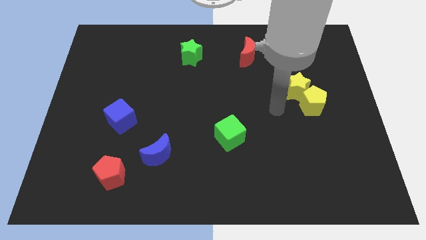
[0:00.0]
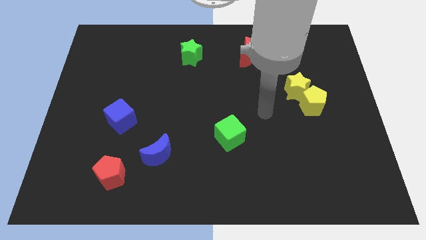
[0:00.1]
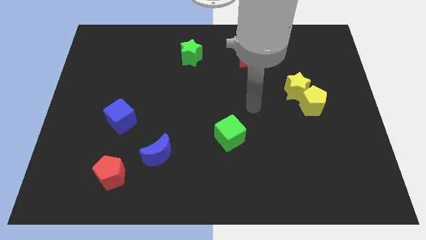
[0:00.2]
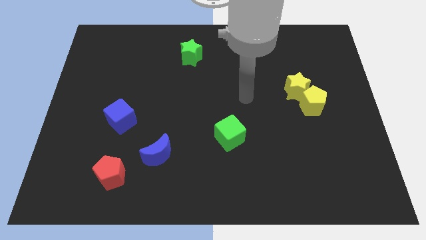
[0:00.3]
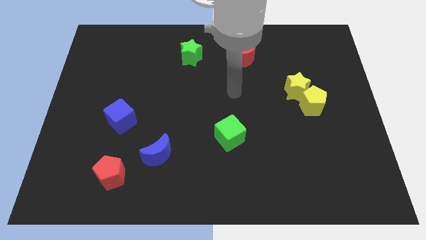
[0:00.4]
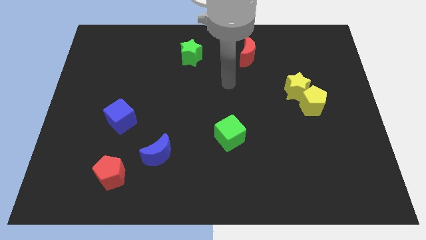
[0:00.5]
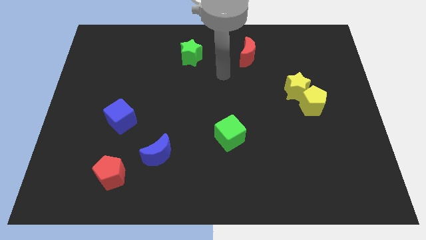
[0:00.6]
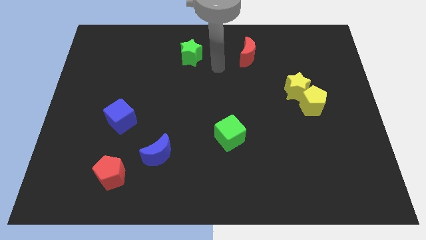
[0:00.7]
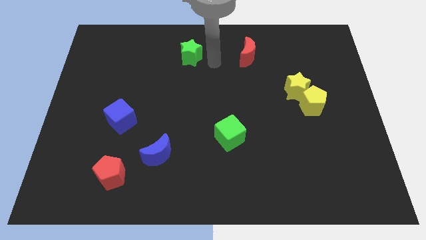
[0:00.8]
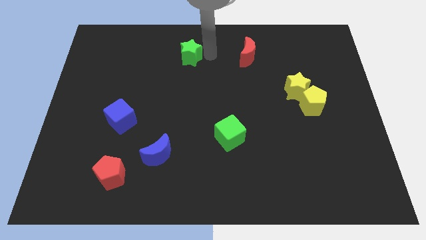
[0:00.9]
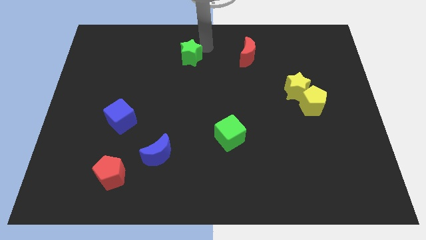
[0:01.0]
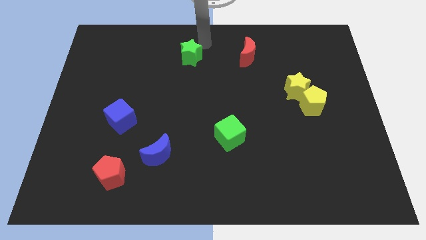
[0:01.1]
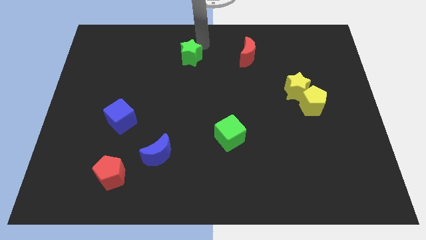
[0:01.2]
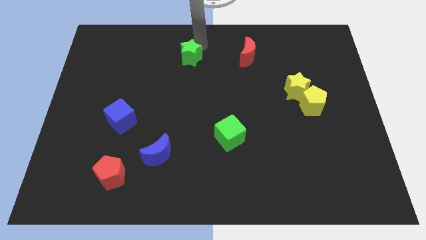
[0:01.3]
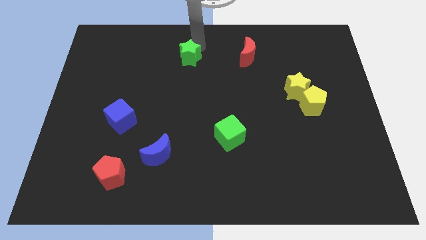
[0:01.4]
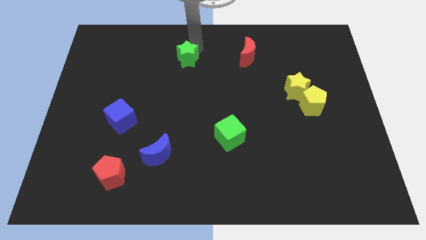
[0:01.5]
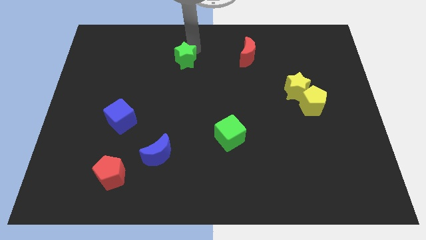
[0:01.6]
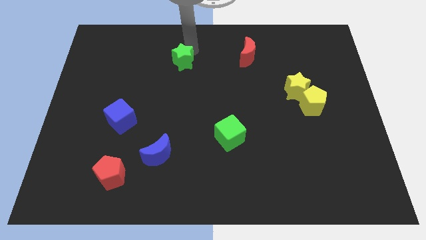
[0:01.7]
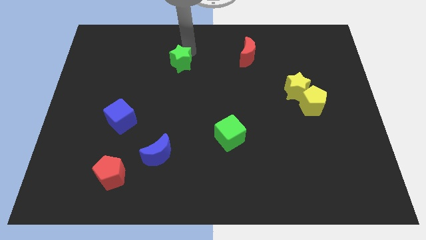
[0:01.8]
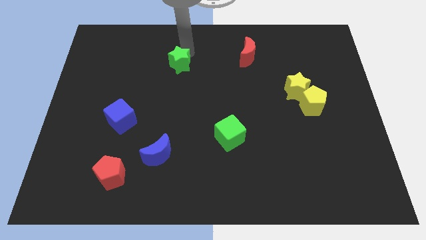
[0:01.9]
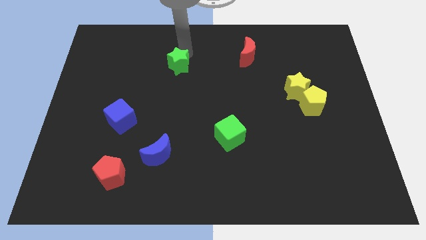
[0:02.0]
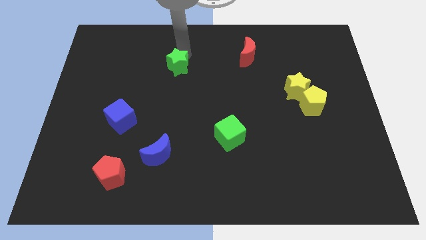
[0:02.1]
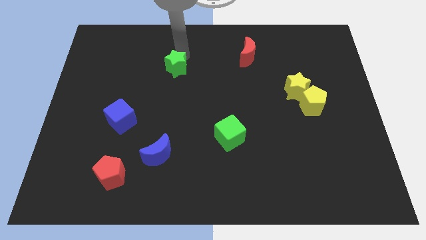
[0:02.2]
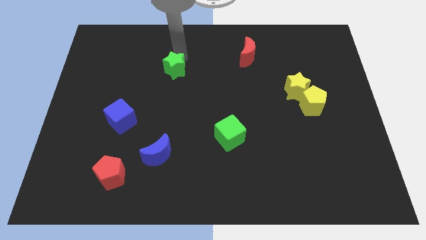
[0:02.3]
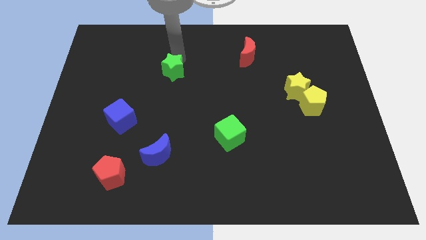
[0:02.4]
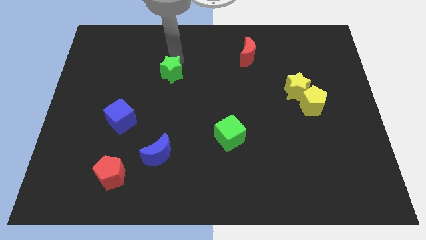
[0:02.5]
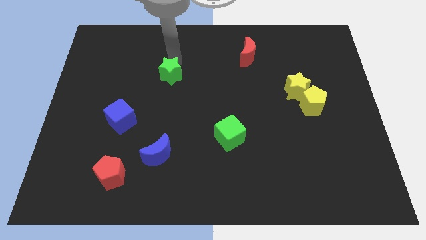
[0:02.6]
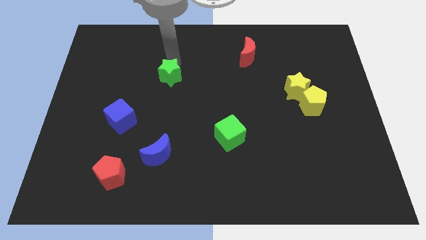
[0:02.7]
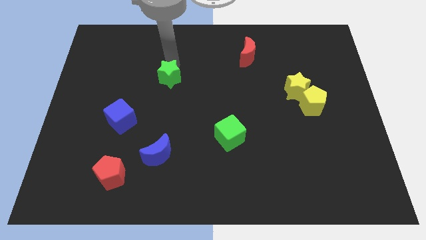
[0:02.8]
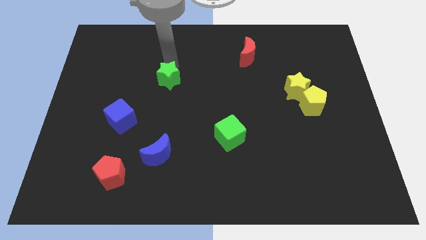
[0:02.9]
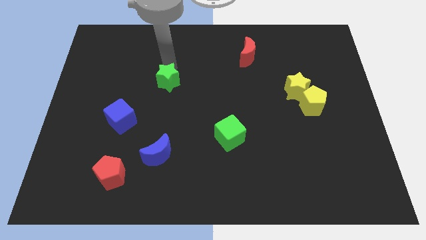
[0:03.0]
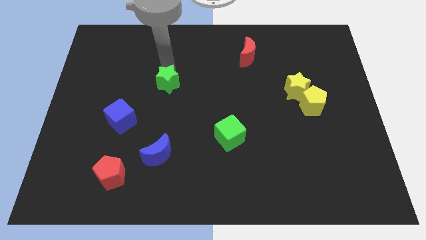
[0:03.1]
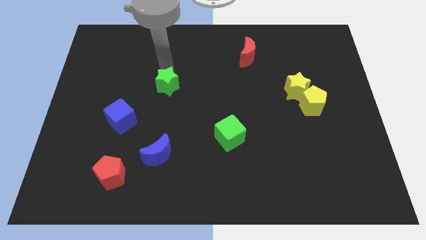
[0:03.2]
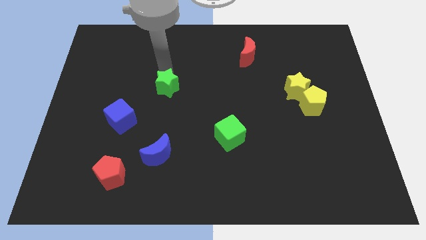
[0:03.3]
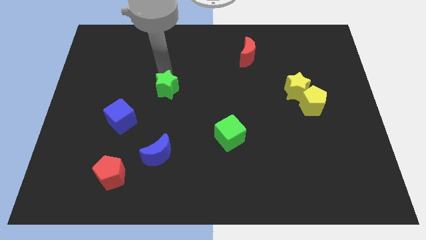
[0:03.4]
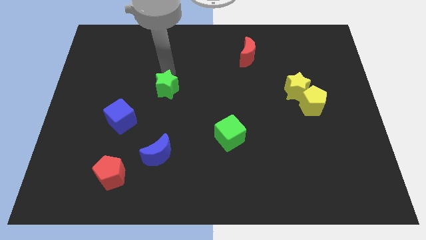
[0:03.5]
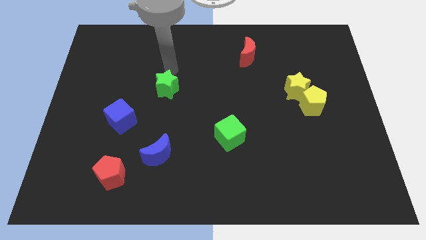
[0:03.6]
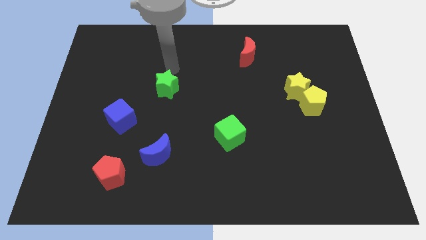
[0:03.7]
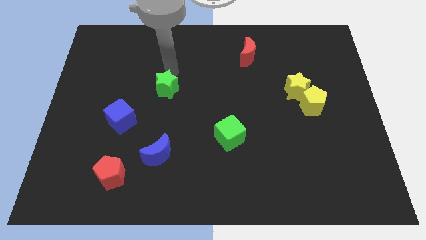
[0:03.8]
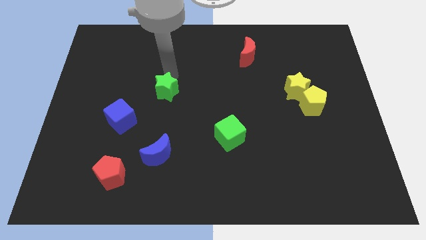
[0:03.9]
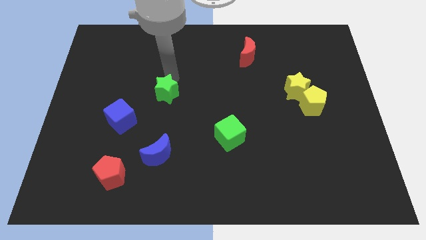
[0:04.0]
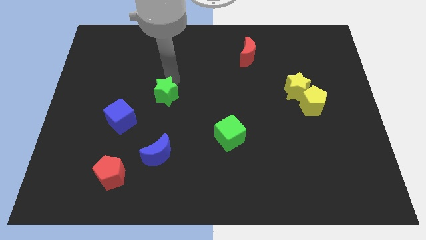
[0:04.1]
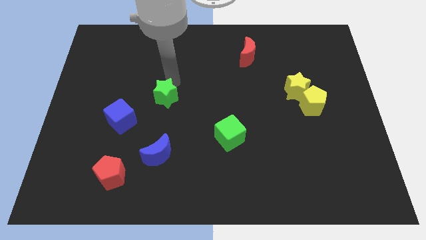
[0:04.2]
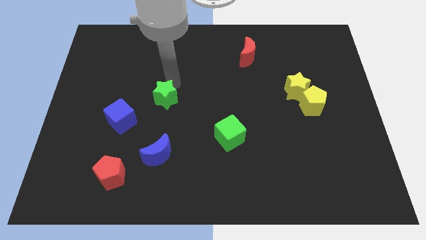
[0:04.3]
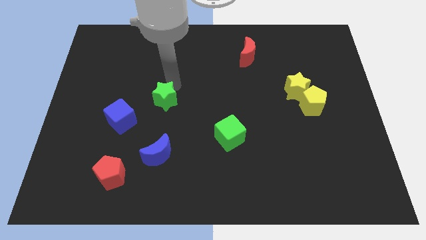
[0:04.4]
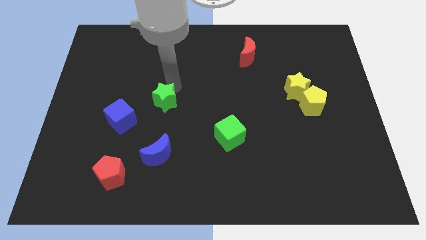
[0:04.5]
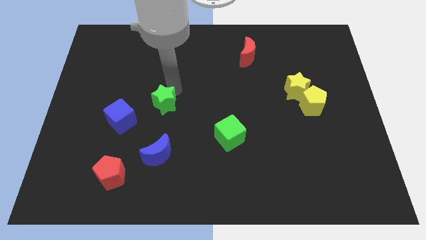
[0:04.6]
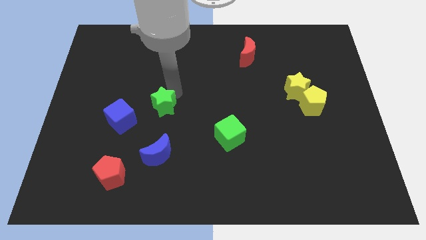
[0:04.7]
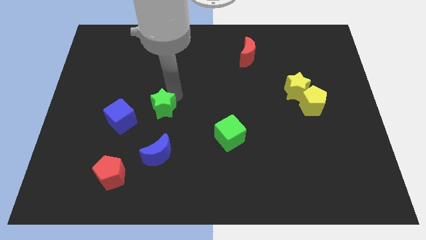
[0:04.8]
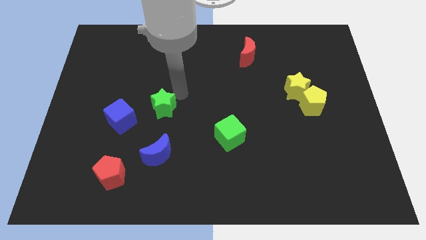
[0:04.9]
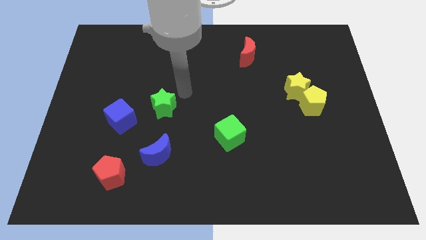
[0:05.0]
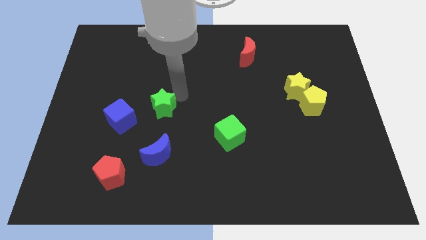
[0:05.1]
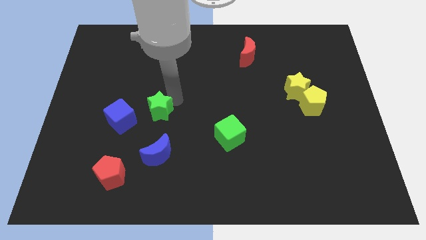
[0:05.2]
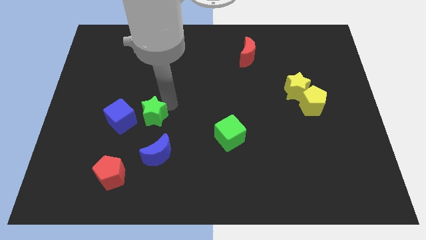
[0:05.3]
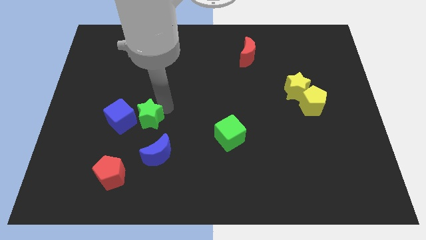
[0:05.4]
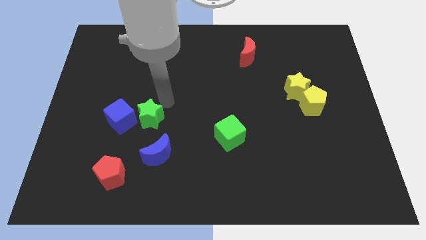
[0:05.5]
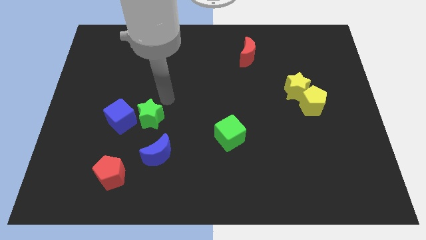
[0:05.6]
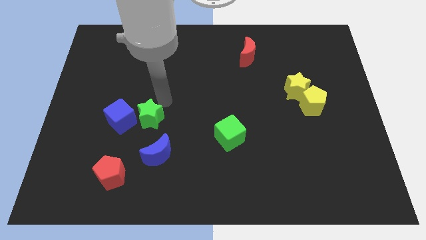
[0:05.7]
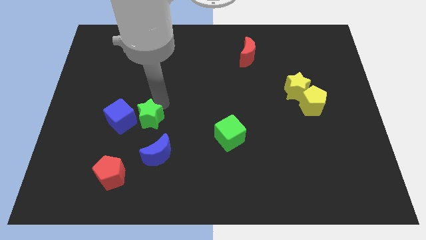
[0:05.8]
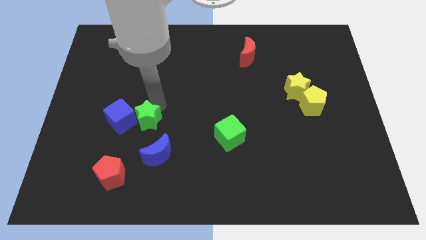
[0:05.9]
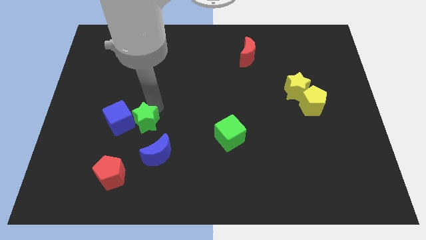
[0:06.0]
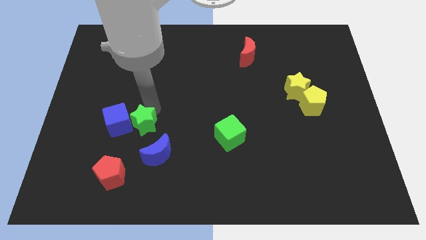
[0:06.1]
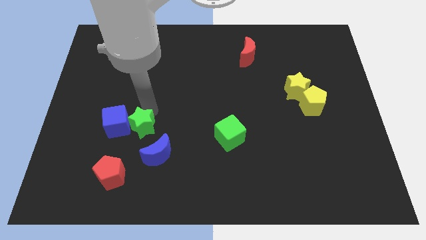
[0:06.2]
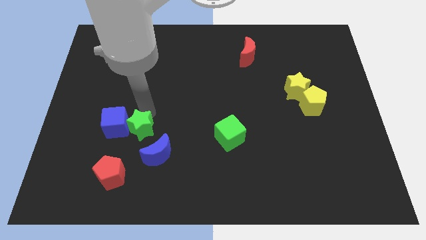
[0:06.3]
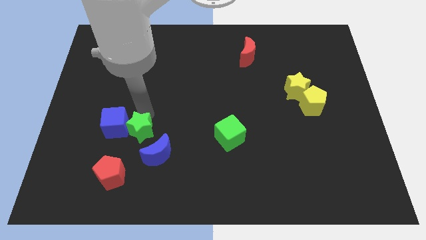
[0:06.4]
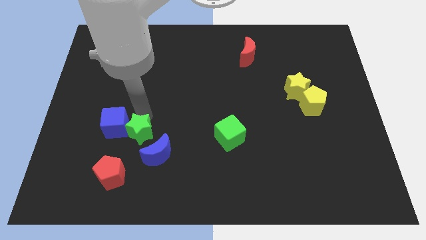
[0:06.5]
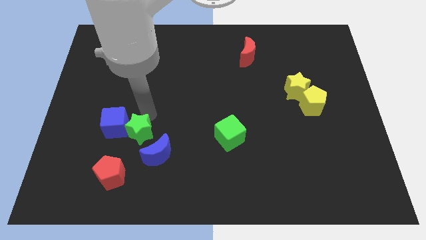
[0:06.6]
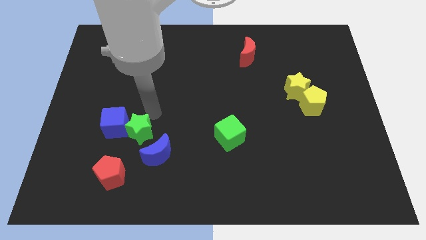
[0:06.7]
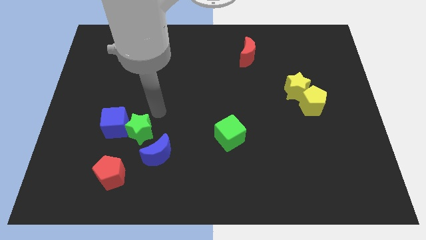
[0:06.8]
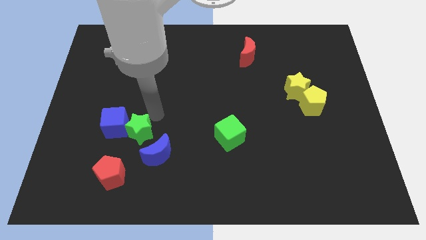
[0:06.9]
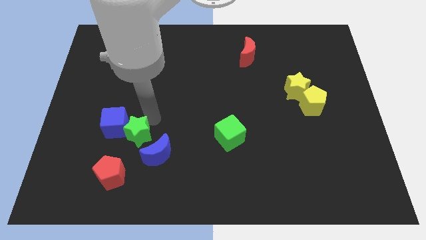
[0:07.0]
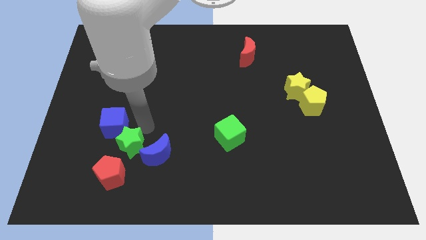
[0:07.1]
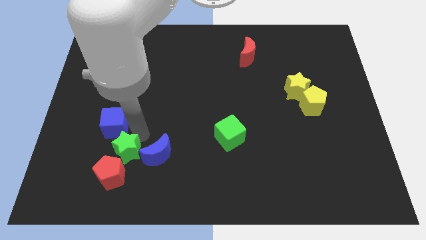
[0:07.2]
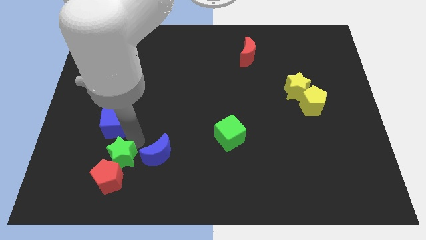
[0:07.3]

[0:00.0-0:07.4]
slide the green star to the red pentagon
